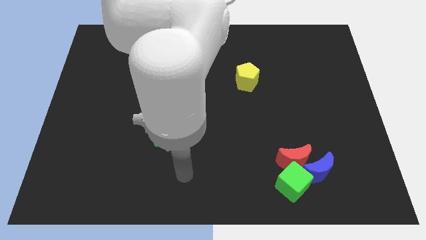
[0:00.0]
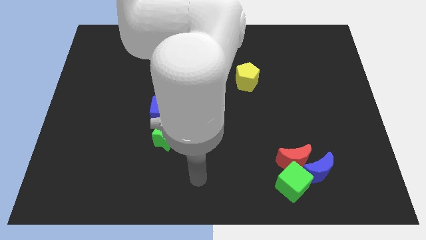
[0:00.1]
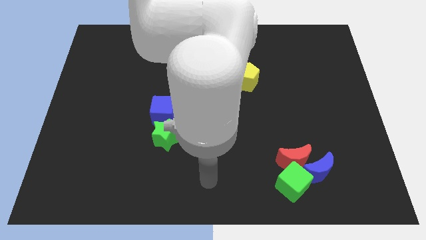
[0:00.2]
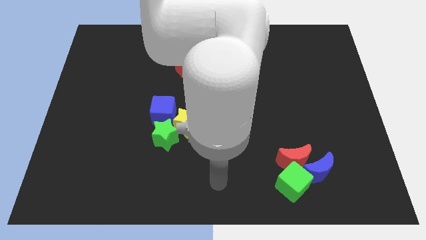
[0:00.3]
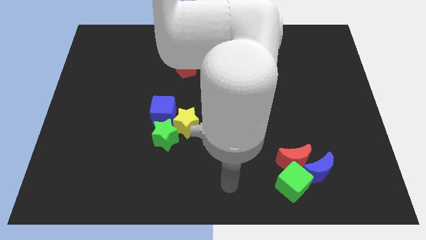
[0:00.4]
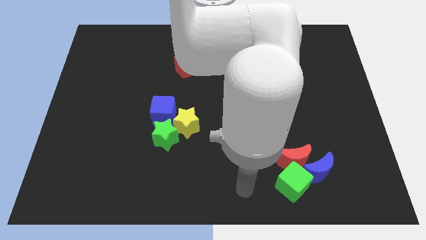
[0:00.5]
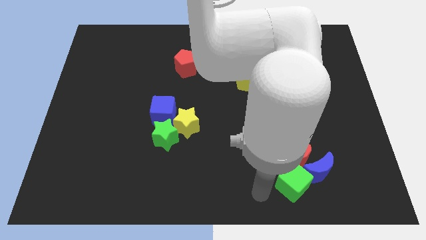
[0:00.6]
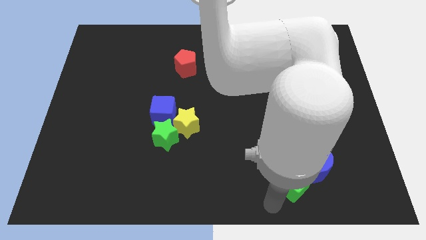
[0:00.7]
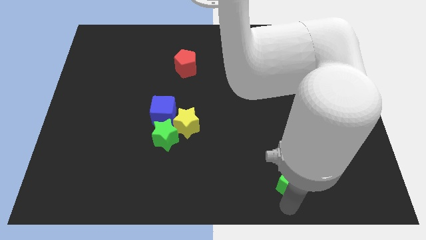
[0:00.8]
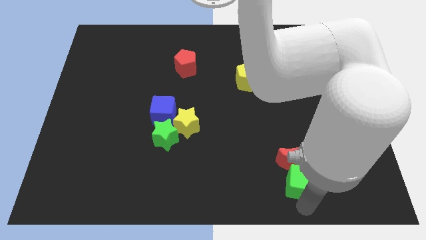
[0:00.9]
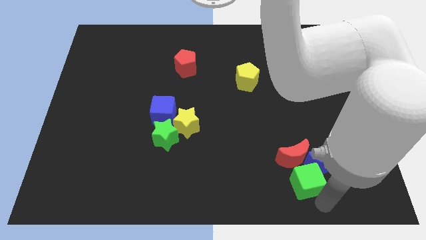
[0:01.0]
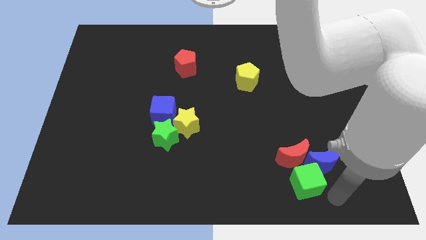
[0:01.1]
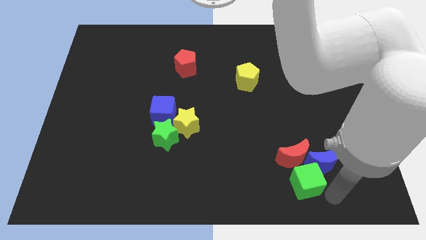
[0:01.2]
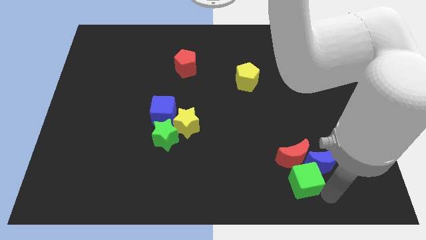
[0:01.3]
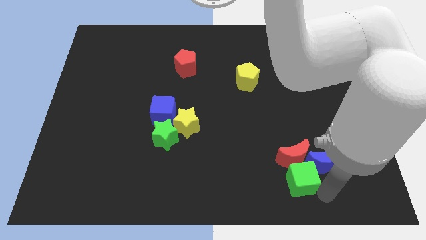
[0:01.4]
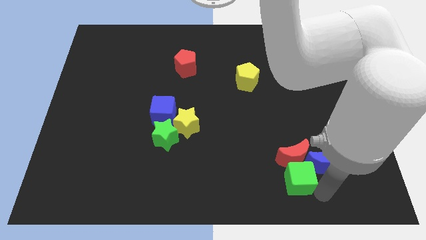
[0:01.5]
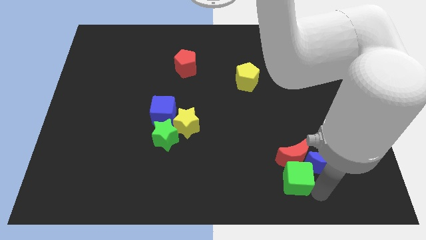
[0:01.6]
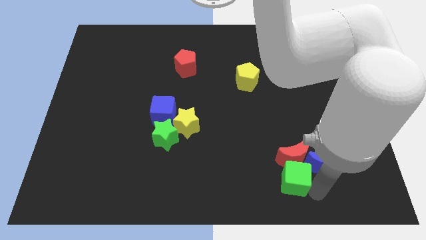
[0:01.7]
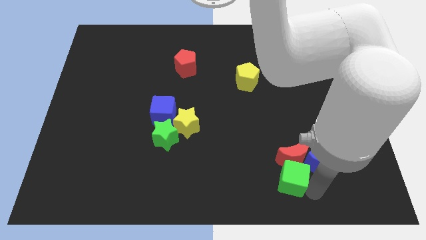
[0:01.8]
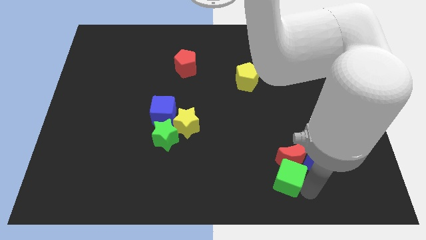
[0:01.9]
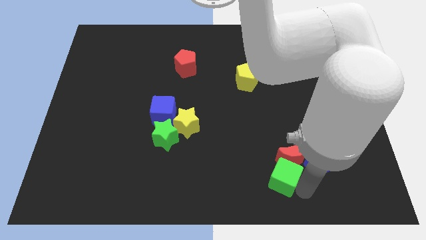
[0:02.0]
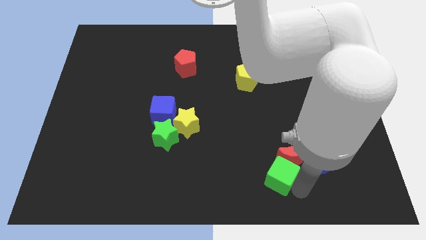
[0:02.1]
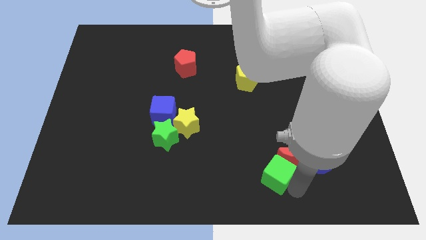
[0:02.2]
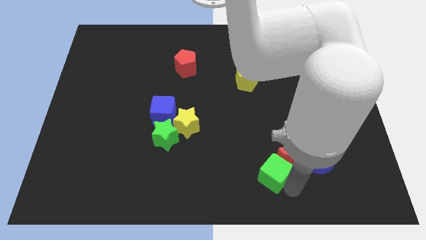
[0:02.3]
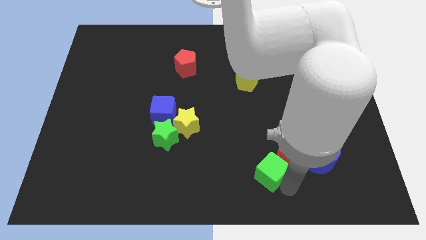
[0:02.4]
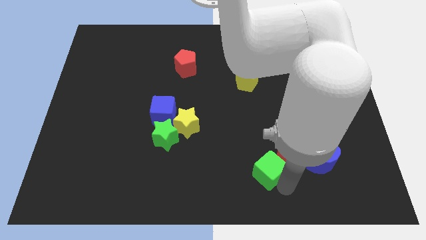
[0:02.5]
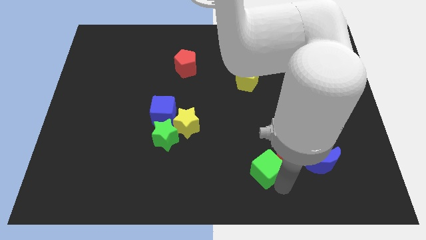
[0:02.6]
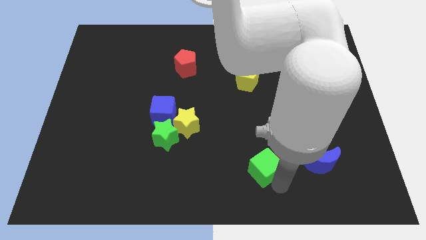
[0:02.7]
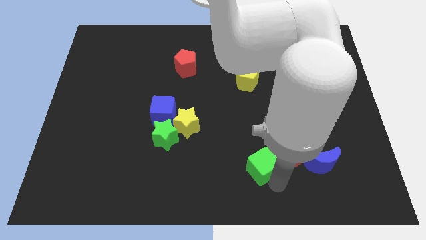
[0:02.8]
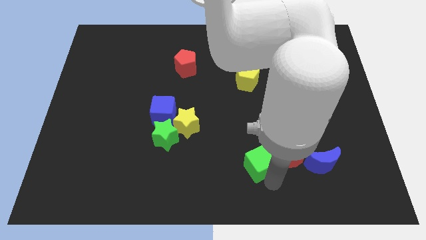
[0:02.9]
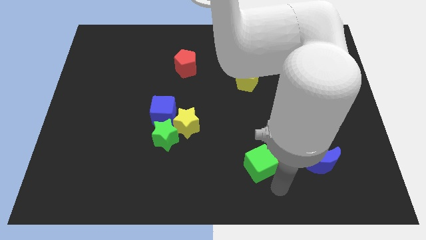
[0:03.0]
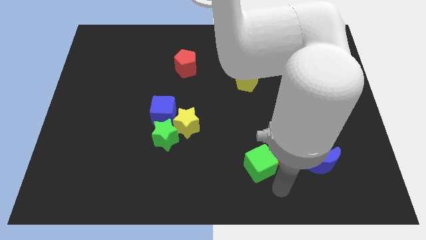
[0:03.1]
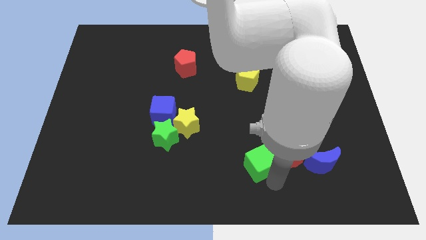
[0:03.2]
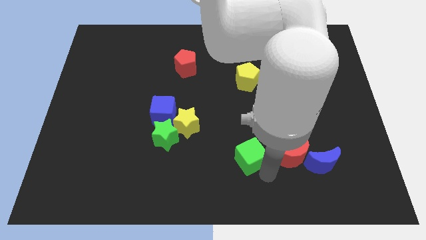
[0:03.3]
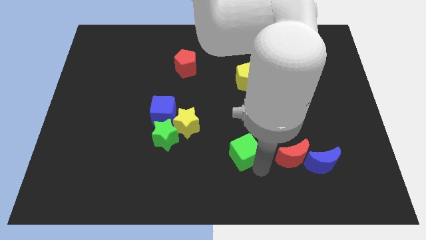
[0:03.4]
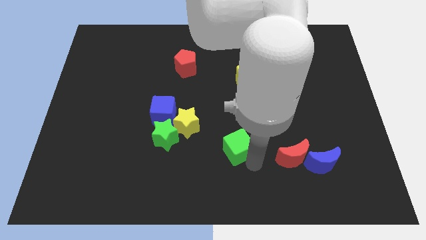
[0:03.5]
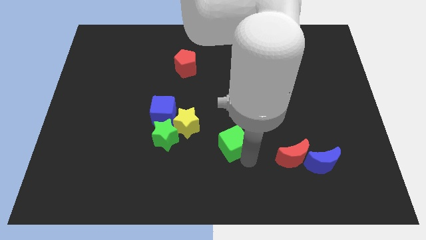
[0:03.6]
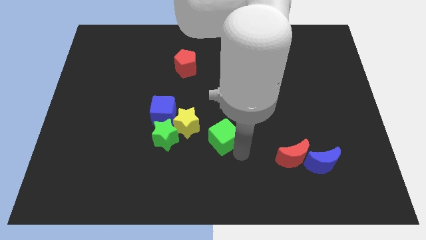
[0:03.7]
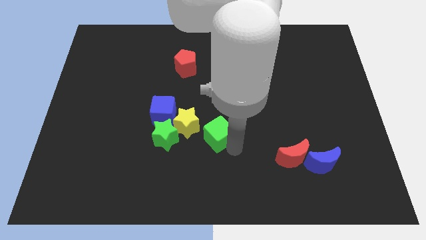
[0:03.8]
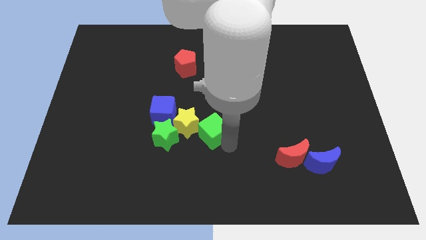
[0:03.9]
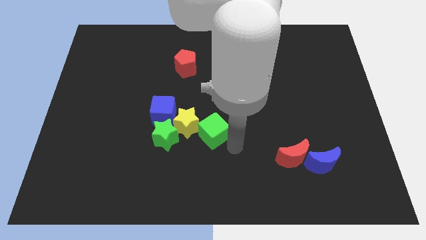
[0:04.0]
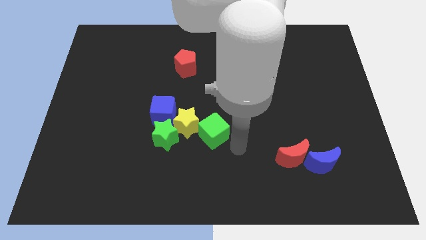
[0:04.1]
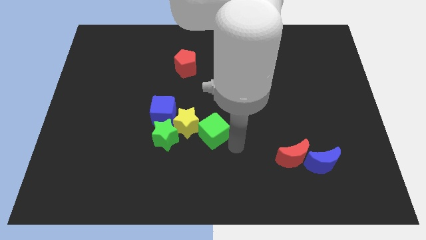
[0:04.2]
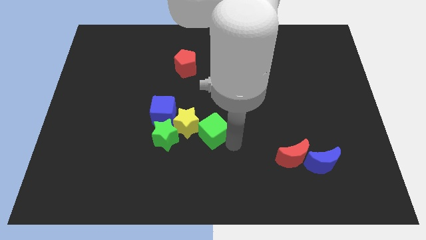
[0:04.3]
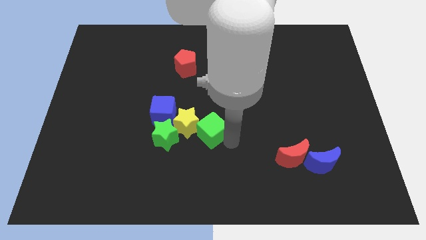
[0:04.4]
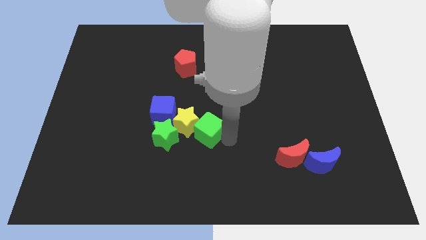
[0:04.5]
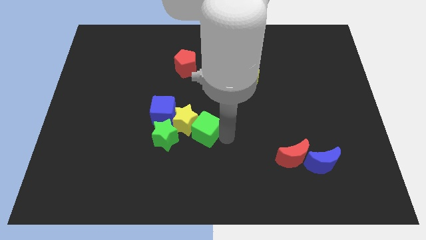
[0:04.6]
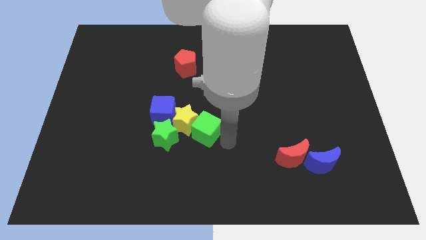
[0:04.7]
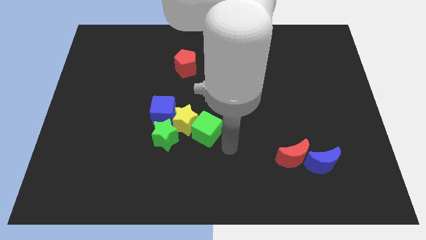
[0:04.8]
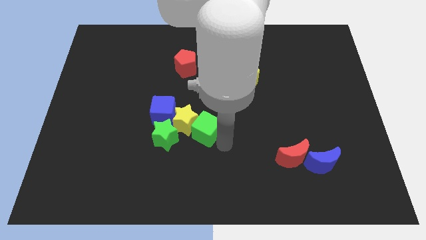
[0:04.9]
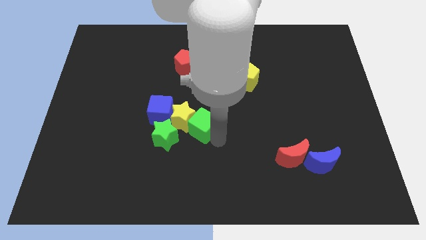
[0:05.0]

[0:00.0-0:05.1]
put the green cube to the top right of the green star

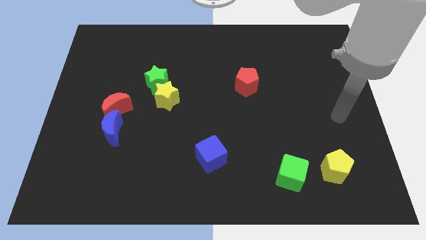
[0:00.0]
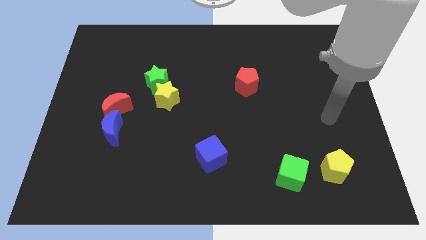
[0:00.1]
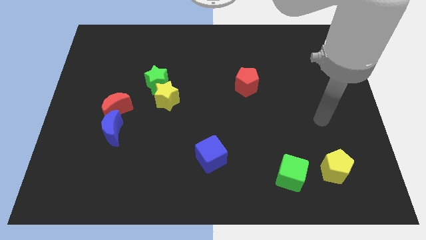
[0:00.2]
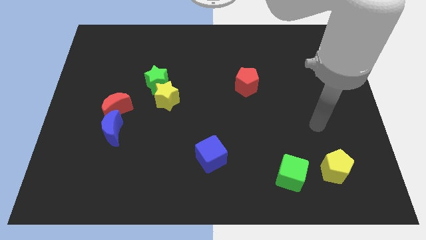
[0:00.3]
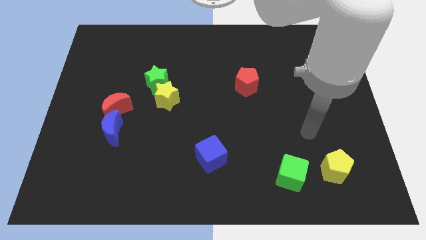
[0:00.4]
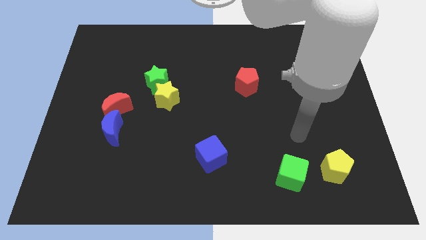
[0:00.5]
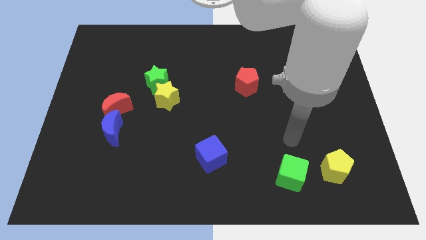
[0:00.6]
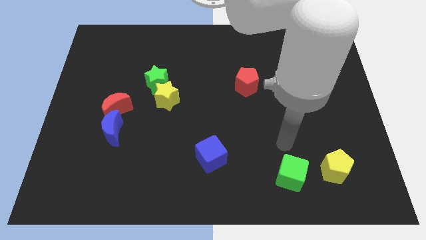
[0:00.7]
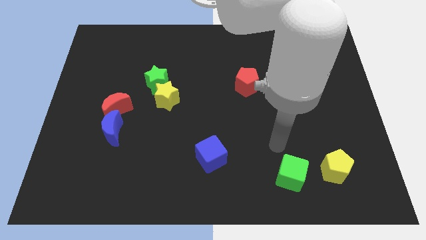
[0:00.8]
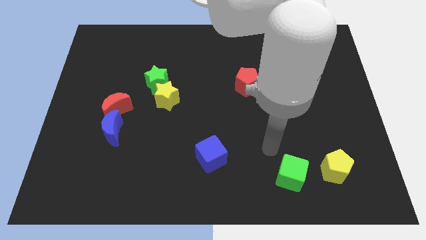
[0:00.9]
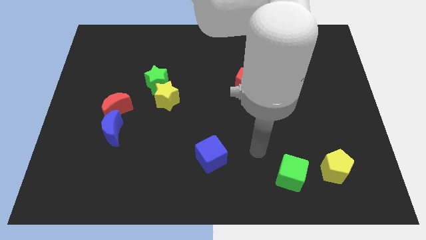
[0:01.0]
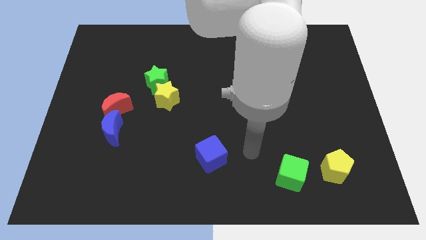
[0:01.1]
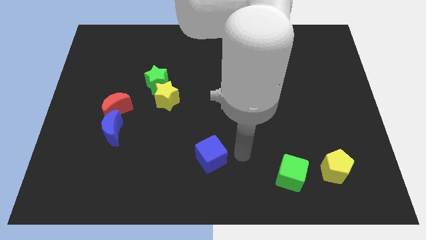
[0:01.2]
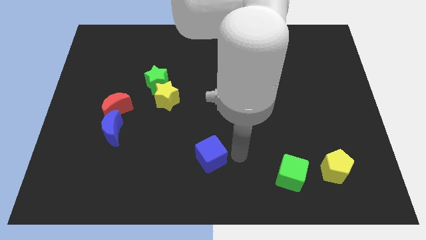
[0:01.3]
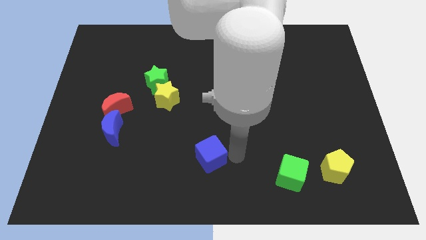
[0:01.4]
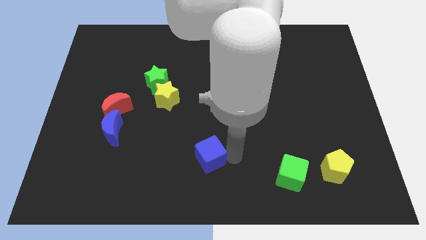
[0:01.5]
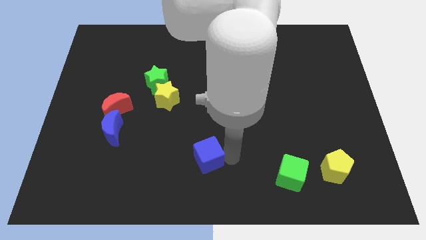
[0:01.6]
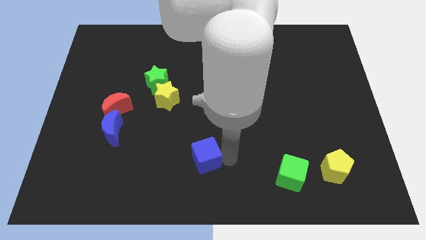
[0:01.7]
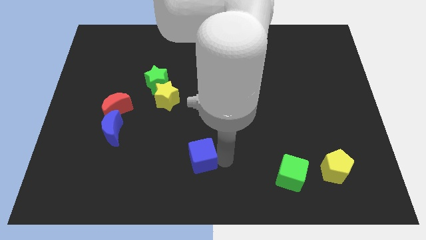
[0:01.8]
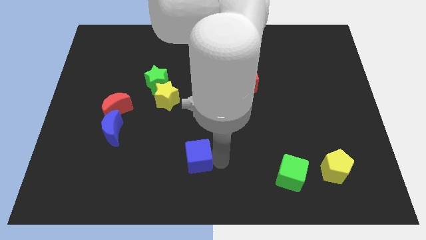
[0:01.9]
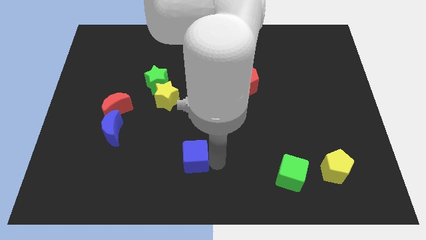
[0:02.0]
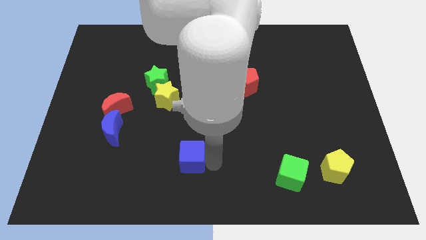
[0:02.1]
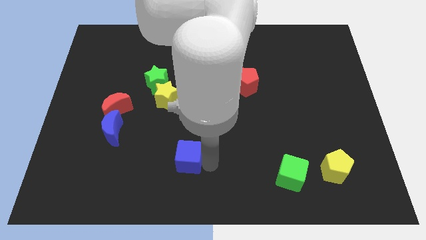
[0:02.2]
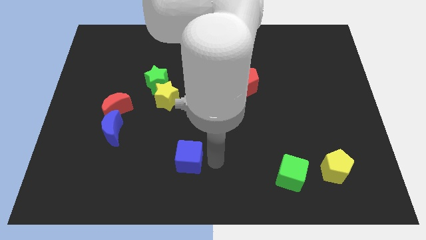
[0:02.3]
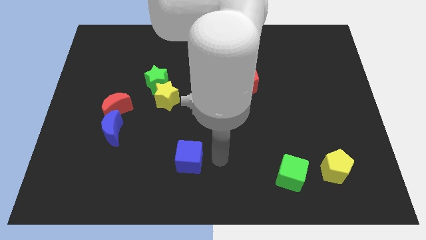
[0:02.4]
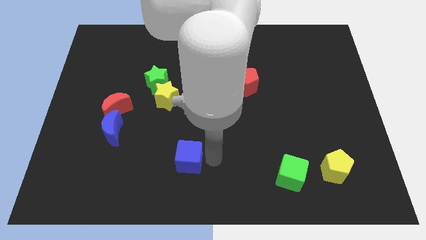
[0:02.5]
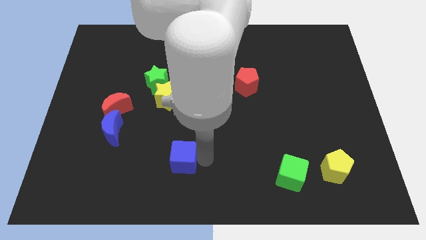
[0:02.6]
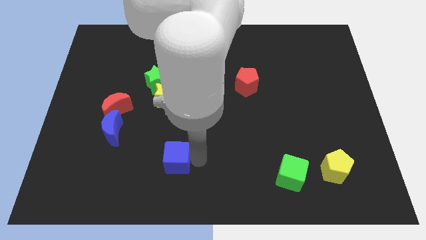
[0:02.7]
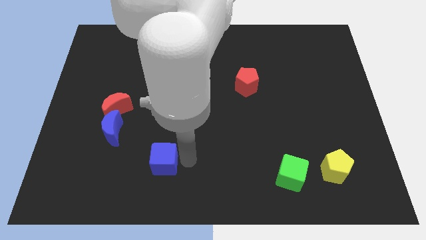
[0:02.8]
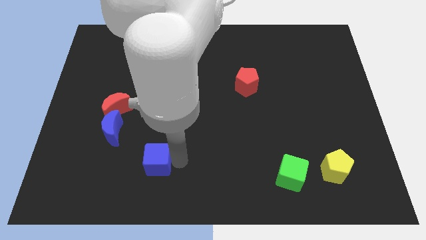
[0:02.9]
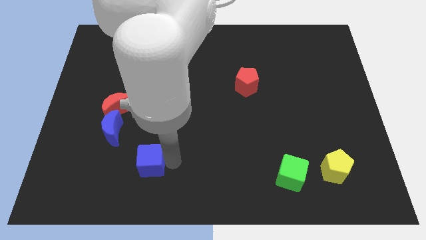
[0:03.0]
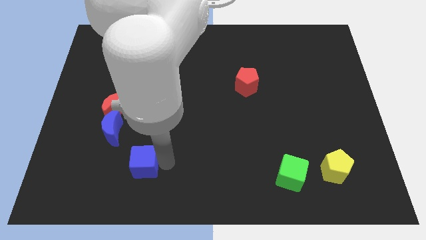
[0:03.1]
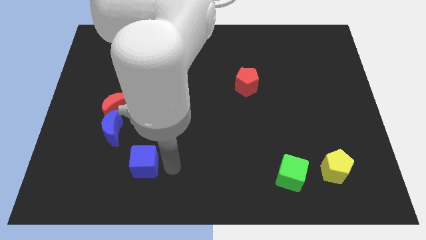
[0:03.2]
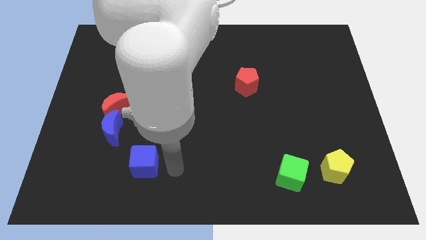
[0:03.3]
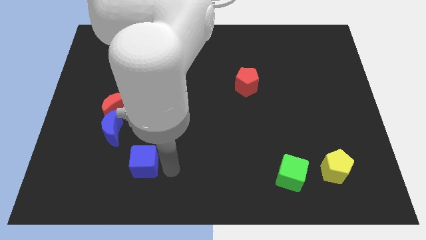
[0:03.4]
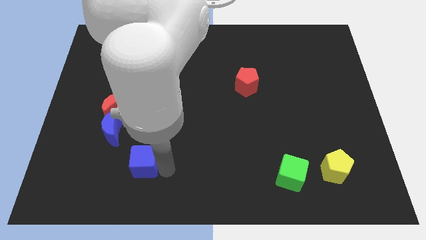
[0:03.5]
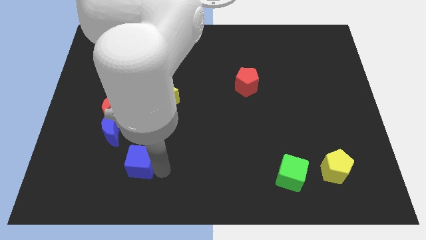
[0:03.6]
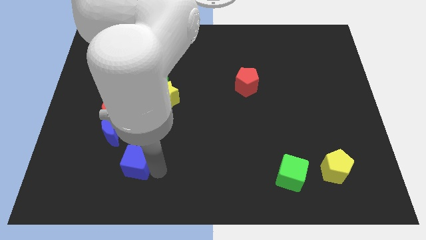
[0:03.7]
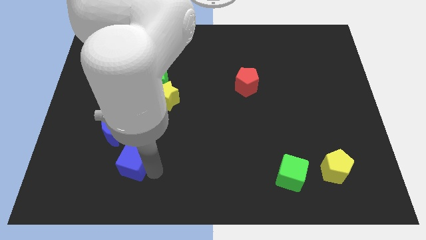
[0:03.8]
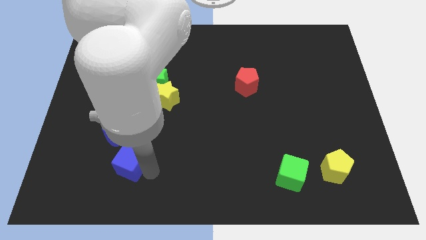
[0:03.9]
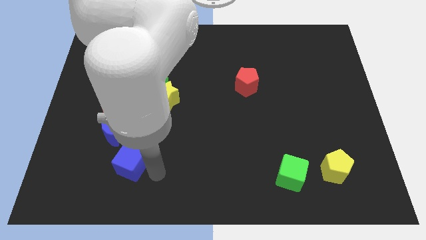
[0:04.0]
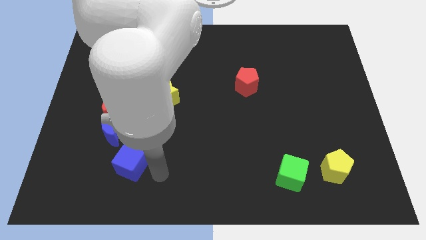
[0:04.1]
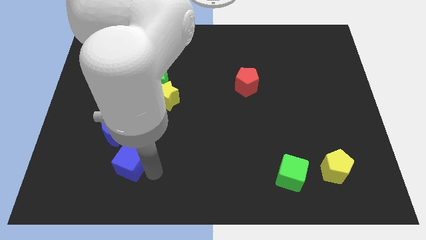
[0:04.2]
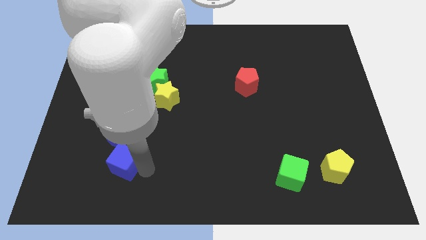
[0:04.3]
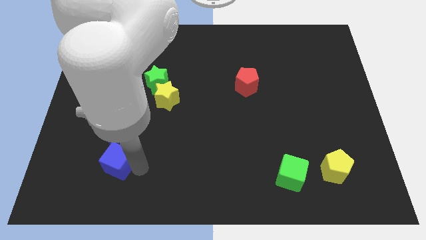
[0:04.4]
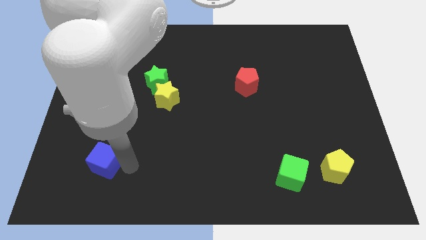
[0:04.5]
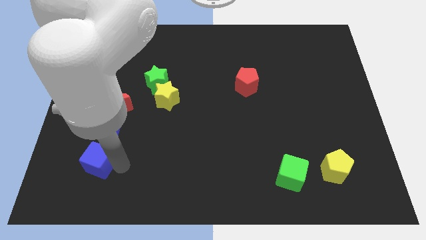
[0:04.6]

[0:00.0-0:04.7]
push the blue cube to the bottom left of the blue moon
